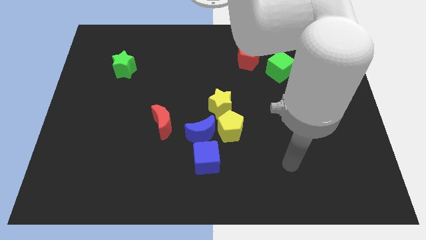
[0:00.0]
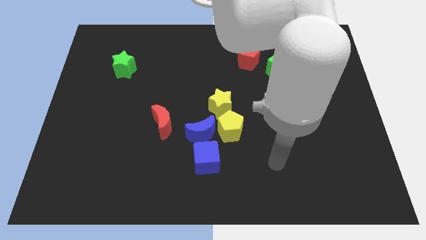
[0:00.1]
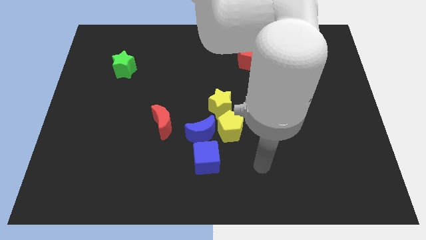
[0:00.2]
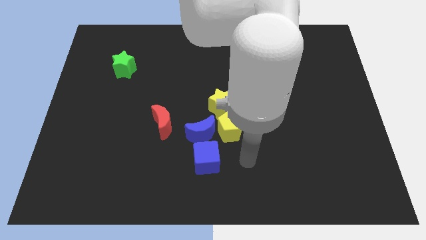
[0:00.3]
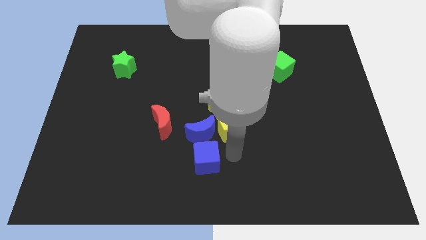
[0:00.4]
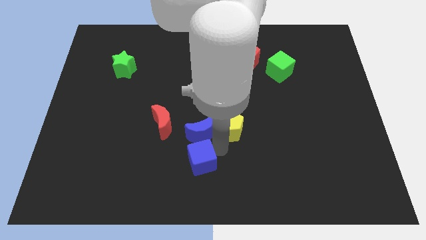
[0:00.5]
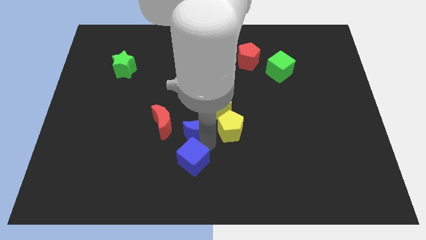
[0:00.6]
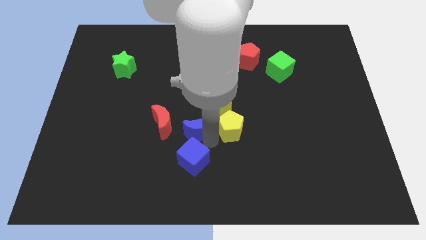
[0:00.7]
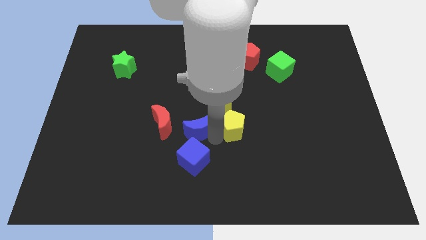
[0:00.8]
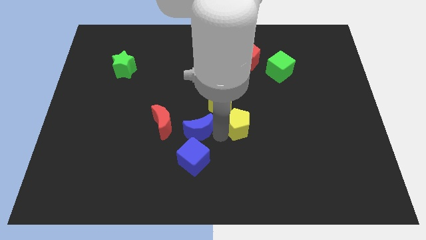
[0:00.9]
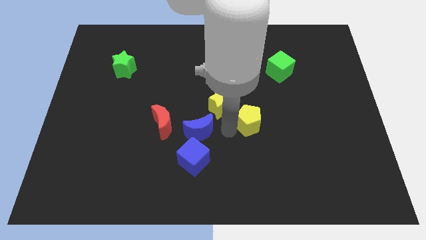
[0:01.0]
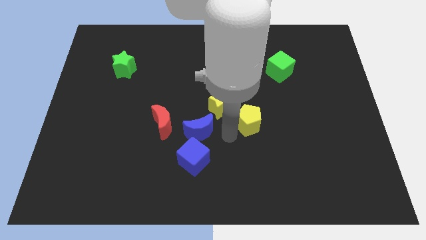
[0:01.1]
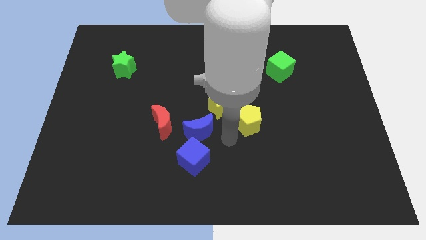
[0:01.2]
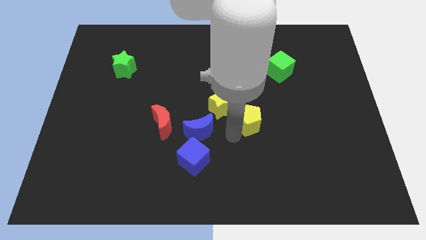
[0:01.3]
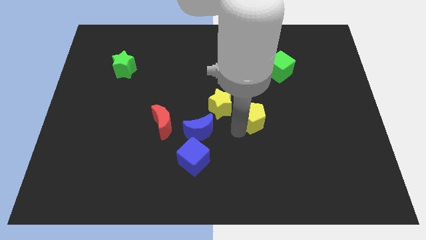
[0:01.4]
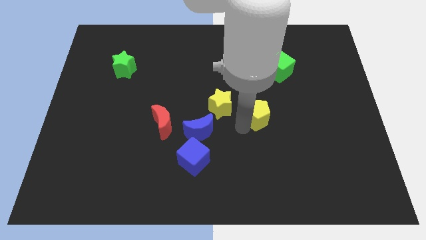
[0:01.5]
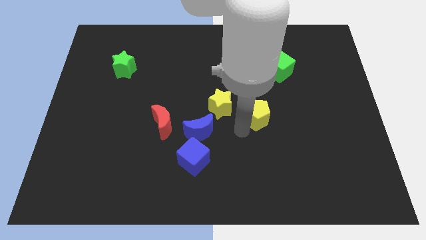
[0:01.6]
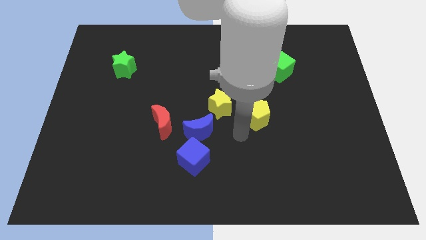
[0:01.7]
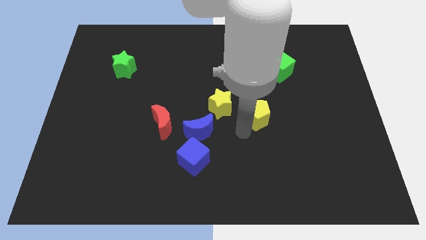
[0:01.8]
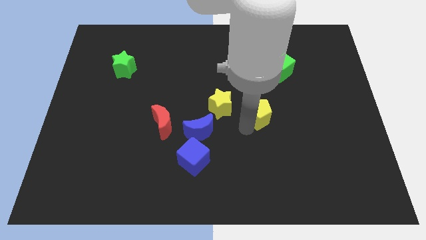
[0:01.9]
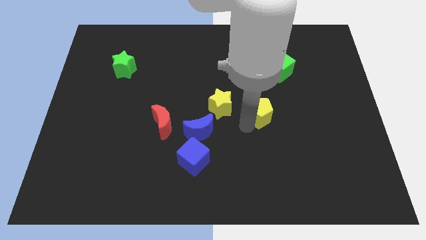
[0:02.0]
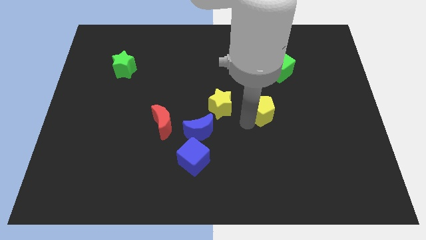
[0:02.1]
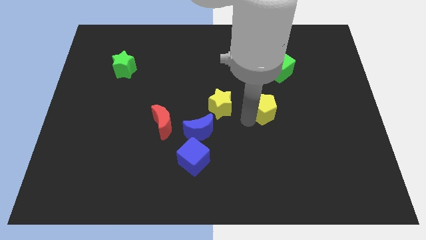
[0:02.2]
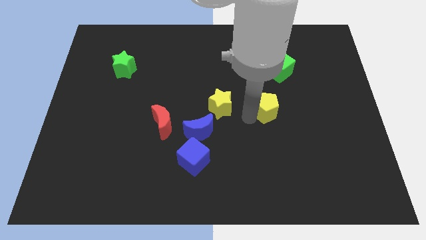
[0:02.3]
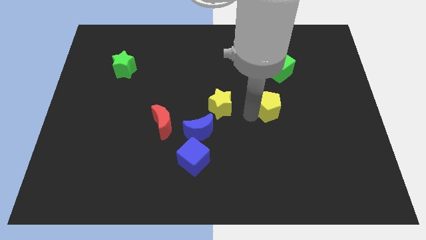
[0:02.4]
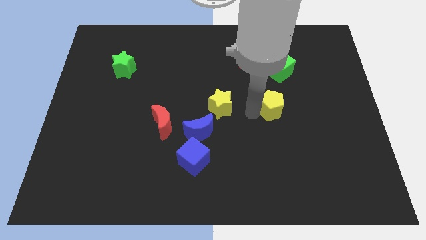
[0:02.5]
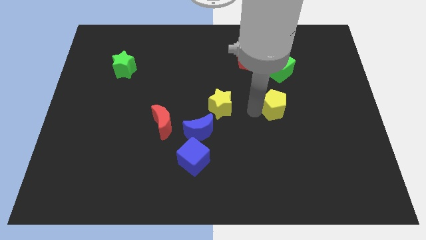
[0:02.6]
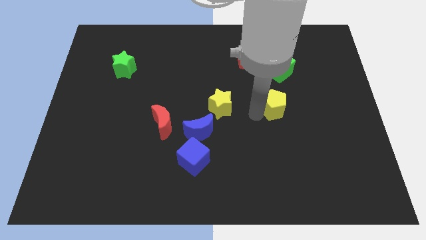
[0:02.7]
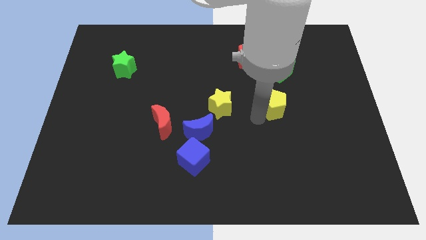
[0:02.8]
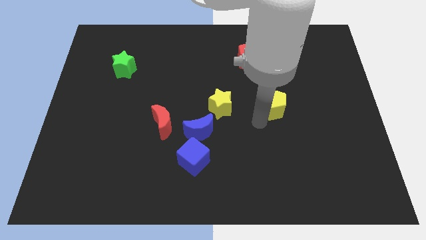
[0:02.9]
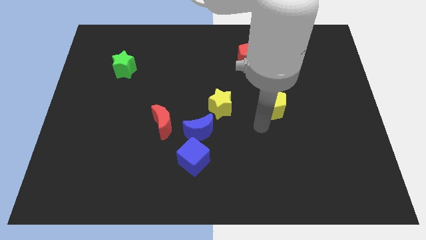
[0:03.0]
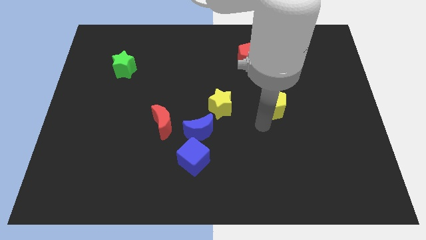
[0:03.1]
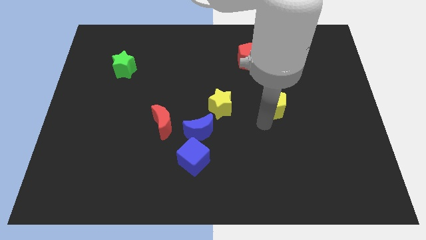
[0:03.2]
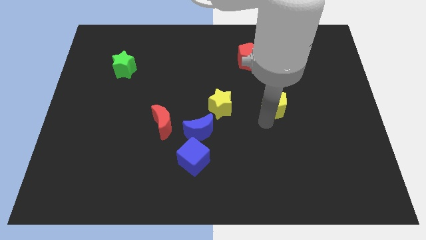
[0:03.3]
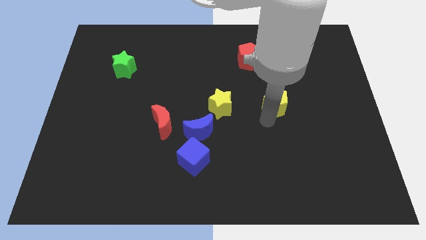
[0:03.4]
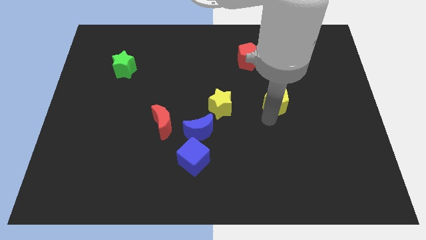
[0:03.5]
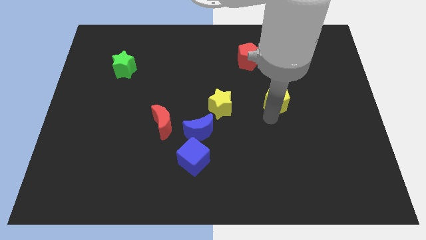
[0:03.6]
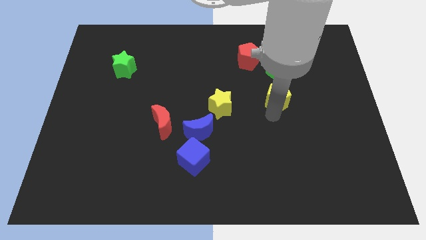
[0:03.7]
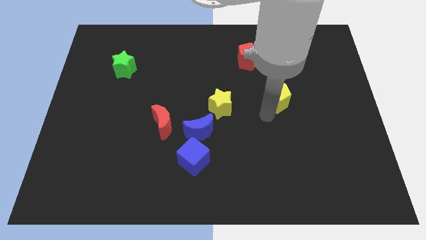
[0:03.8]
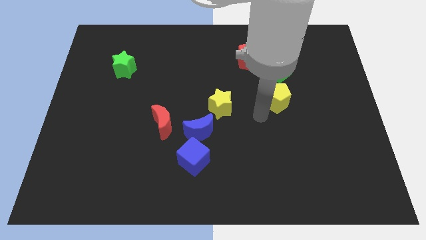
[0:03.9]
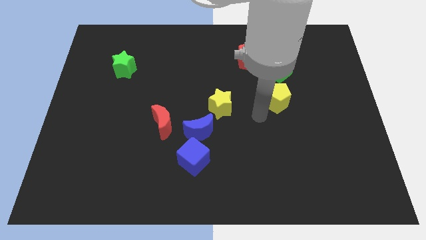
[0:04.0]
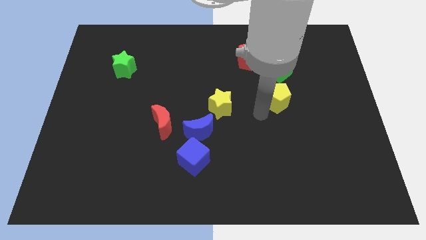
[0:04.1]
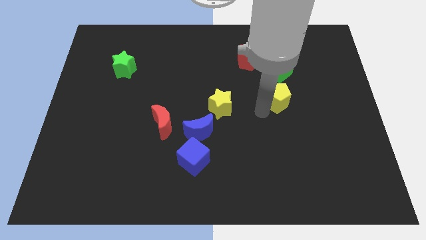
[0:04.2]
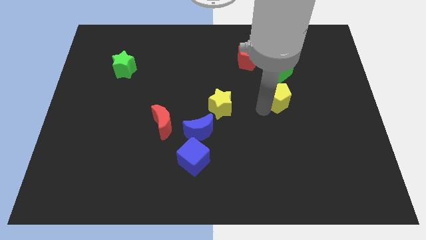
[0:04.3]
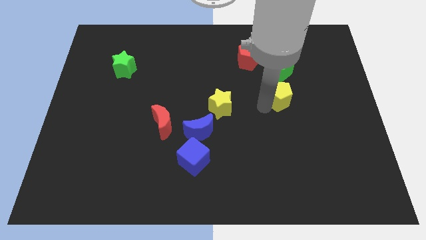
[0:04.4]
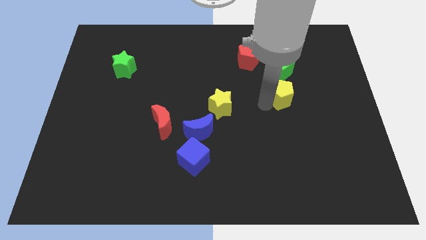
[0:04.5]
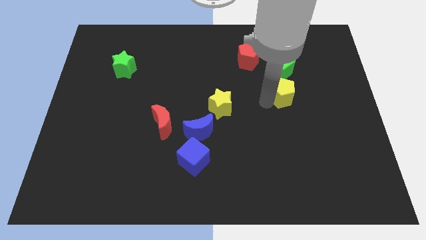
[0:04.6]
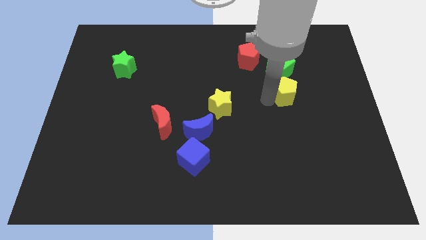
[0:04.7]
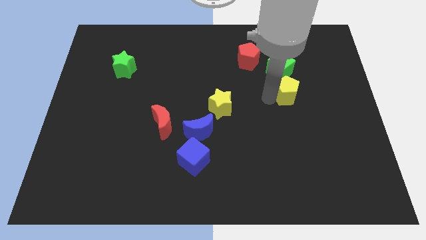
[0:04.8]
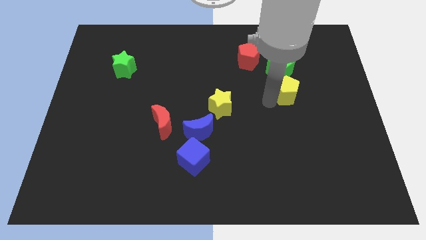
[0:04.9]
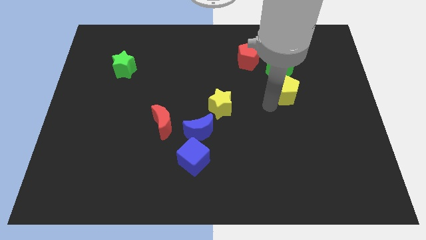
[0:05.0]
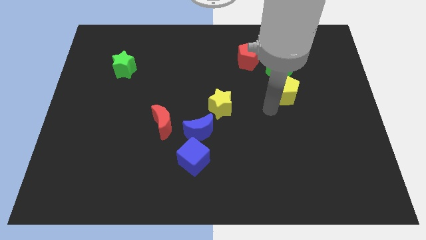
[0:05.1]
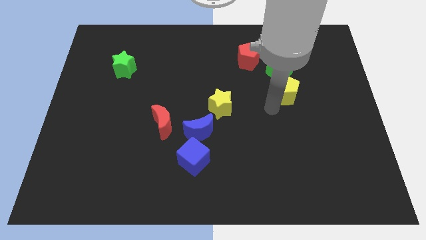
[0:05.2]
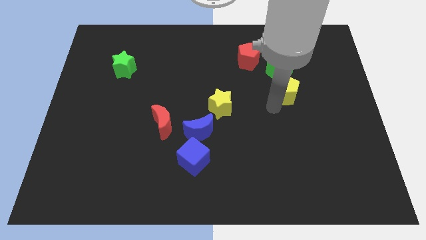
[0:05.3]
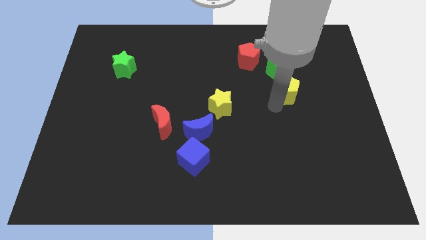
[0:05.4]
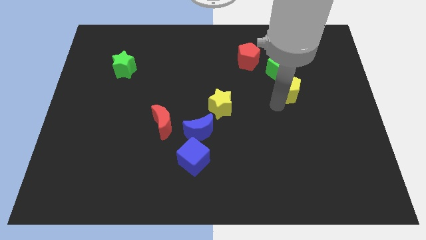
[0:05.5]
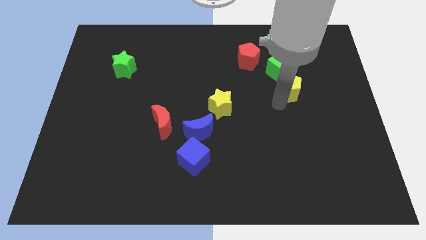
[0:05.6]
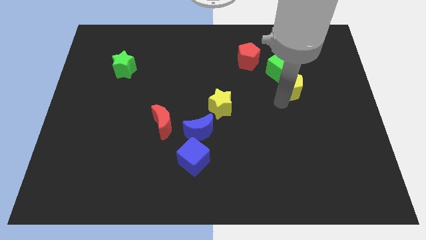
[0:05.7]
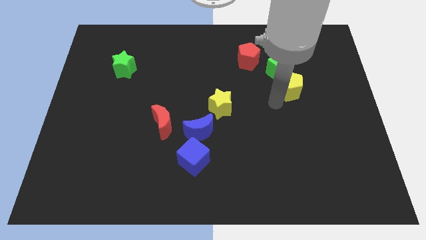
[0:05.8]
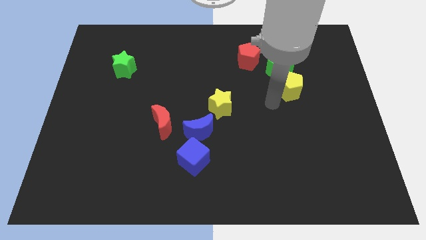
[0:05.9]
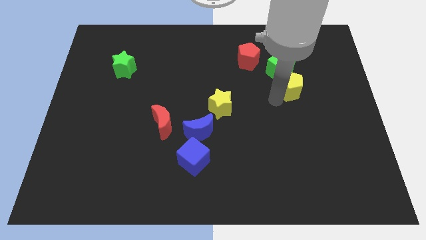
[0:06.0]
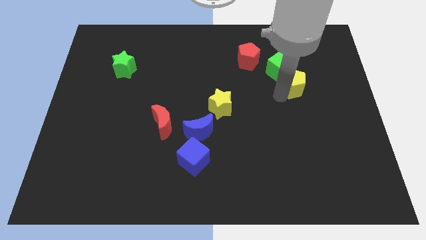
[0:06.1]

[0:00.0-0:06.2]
slide the yellow pentagon up and to the right

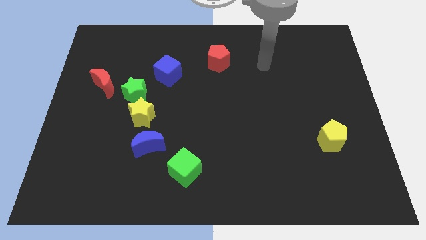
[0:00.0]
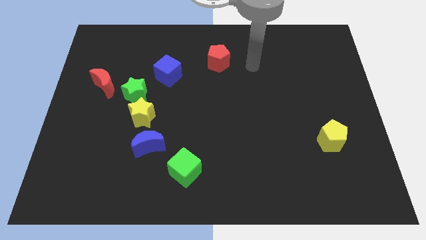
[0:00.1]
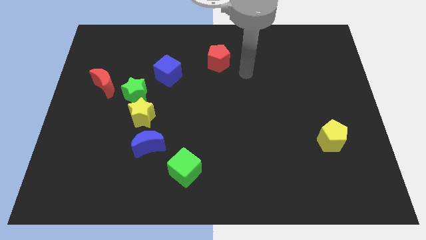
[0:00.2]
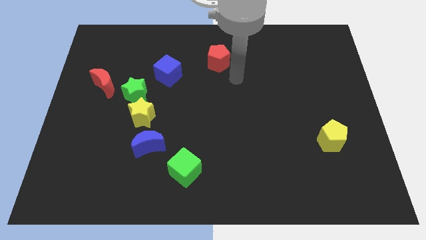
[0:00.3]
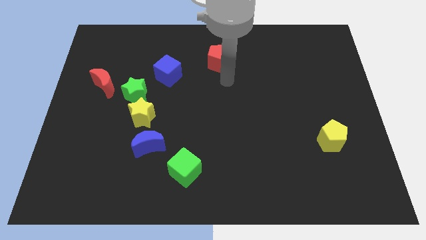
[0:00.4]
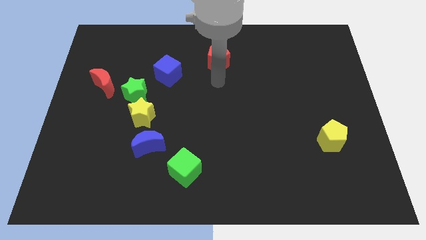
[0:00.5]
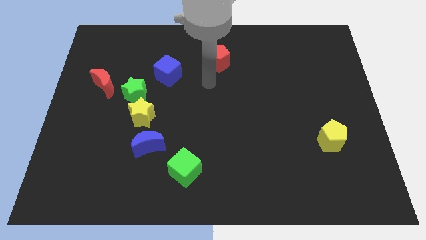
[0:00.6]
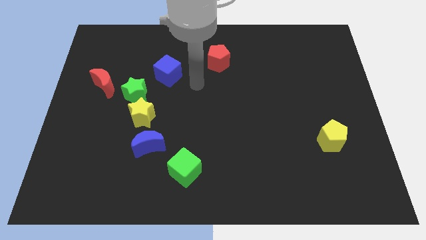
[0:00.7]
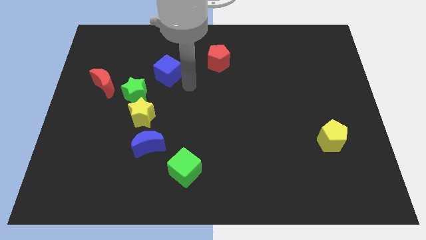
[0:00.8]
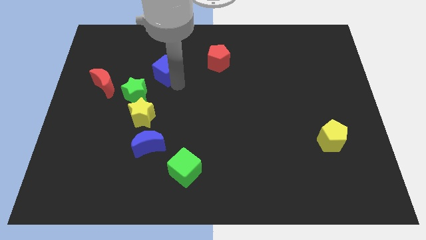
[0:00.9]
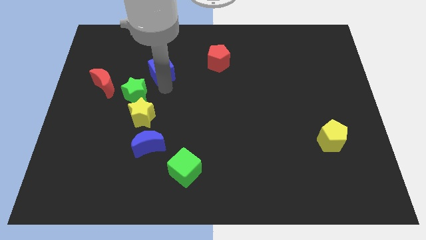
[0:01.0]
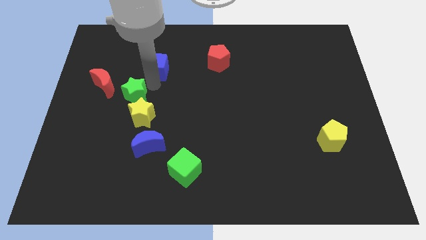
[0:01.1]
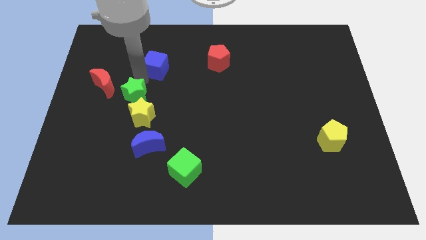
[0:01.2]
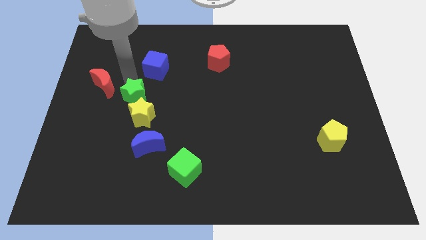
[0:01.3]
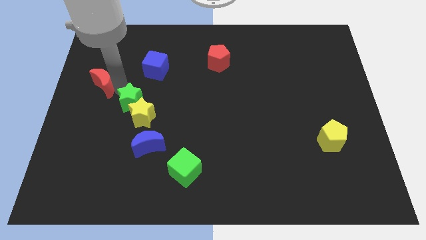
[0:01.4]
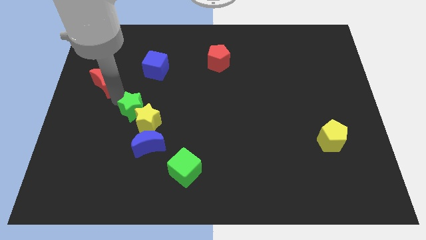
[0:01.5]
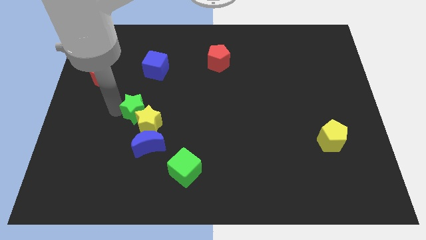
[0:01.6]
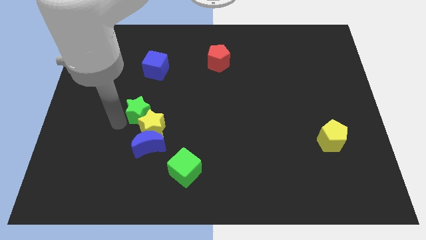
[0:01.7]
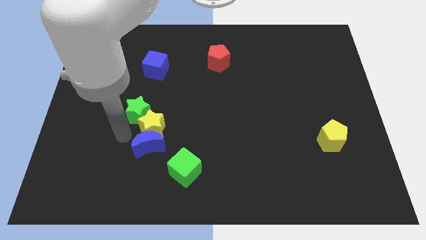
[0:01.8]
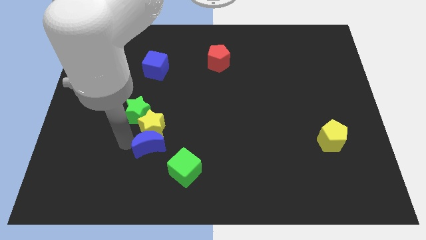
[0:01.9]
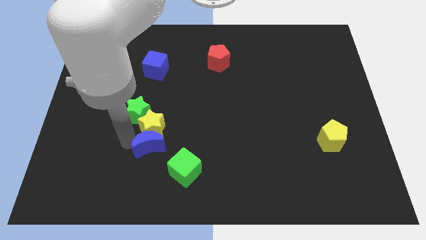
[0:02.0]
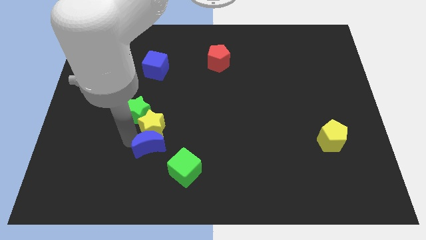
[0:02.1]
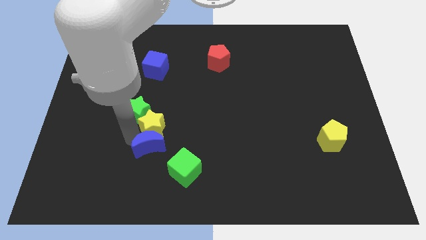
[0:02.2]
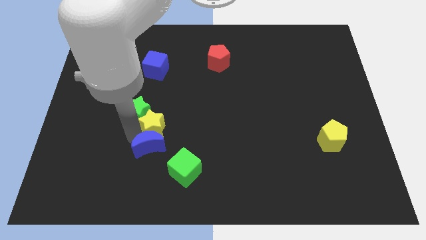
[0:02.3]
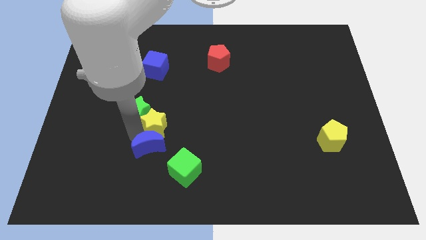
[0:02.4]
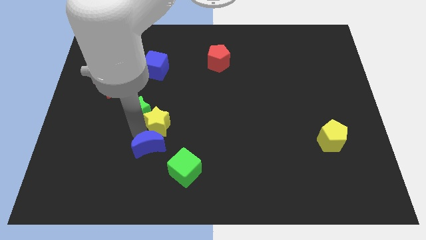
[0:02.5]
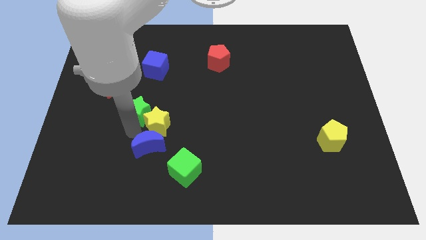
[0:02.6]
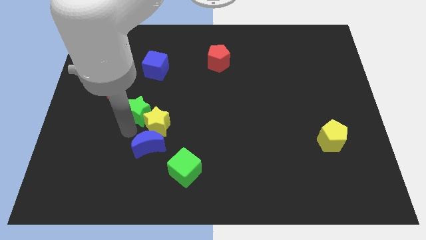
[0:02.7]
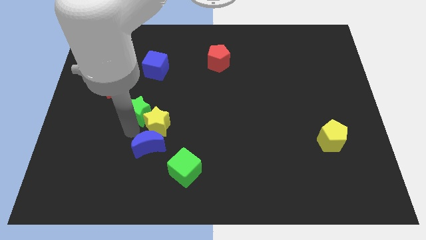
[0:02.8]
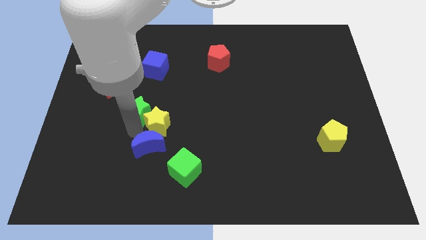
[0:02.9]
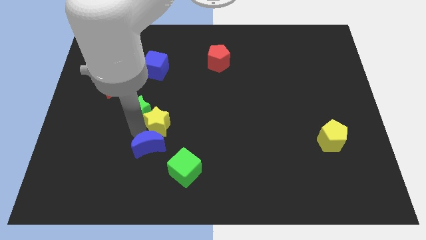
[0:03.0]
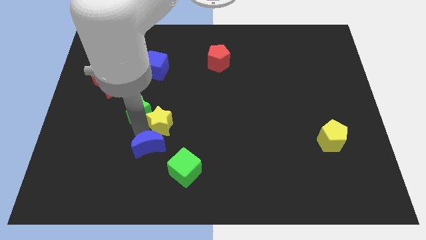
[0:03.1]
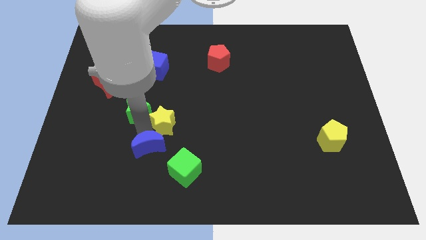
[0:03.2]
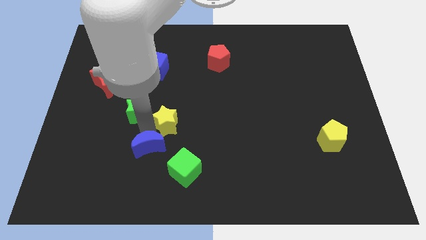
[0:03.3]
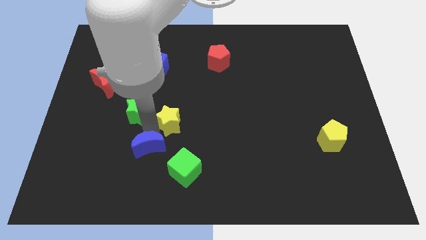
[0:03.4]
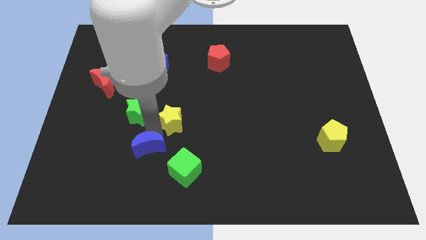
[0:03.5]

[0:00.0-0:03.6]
slide the yellow star a little bit to the right
